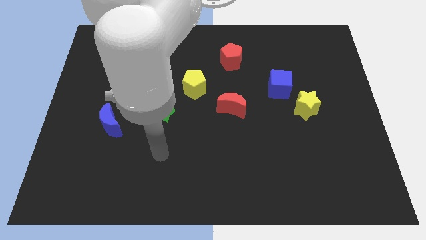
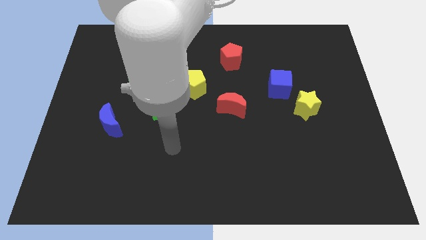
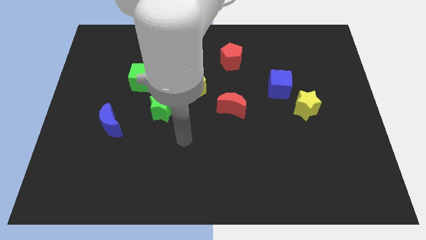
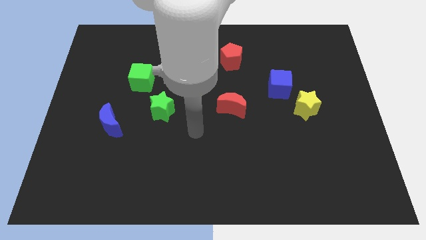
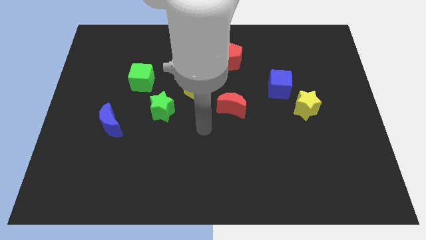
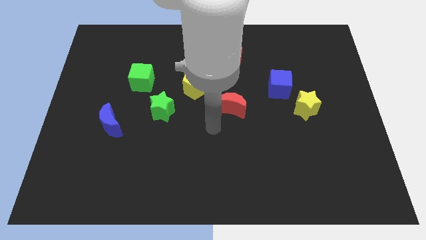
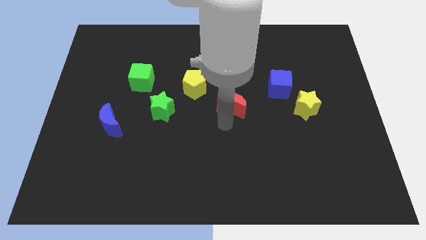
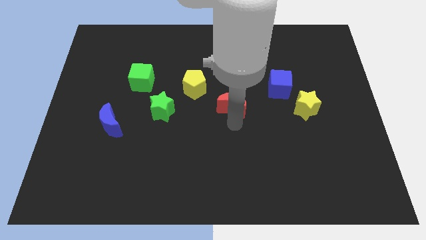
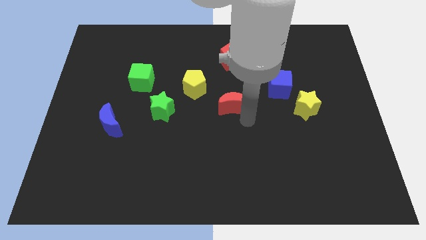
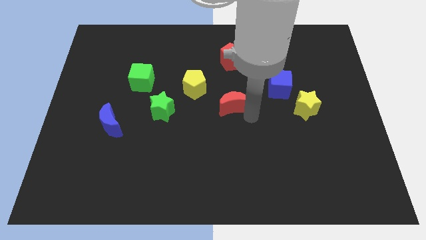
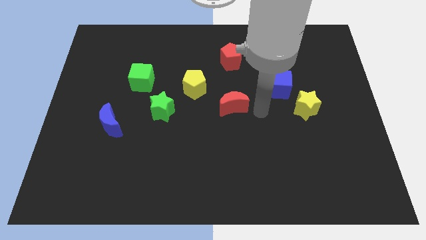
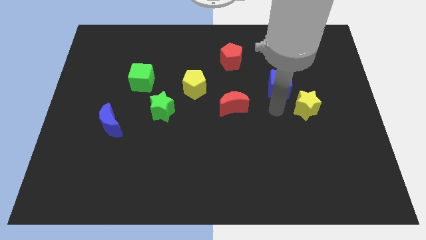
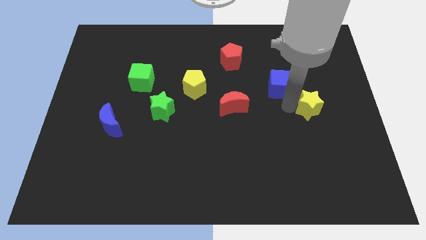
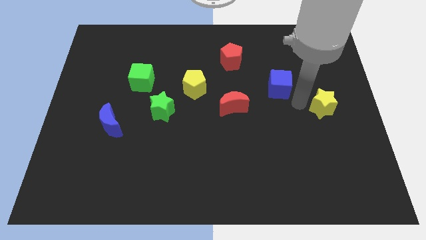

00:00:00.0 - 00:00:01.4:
pull the blue cube apart from the yellow star

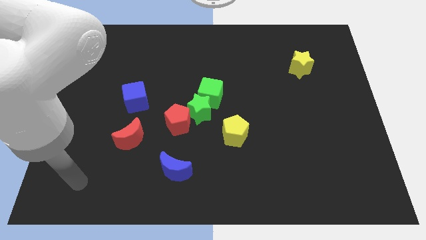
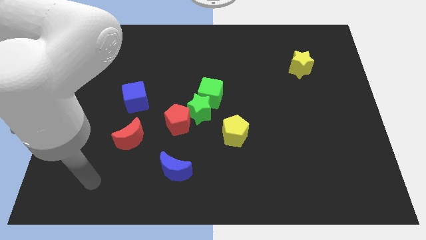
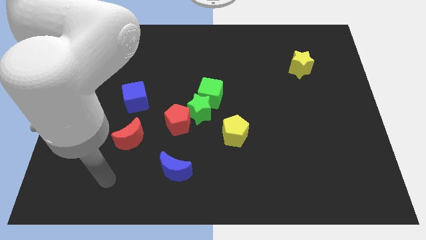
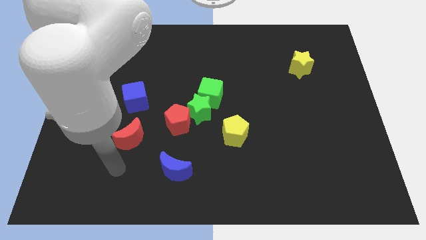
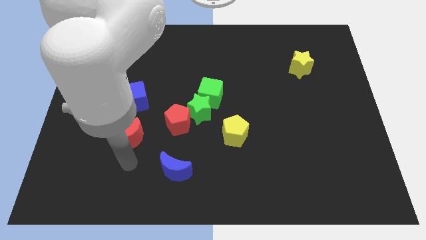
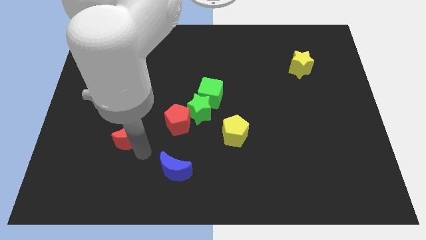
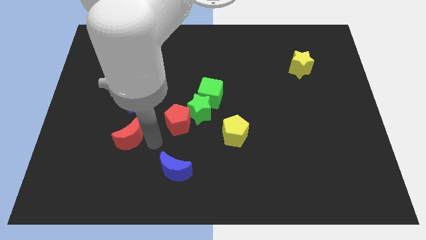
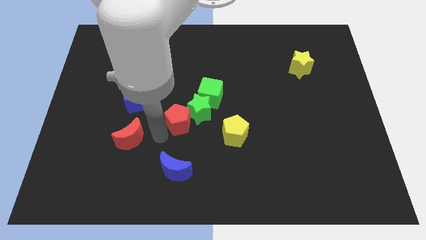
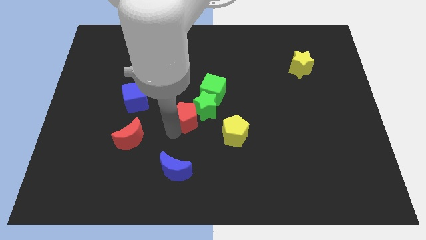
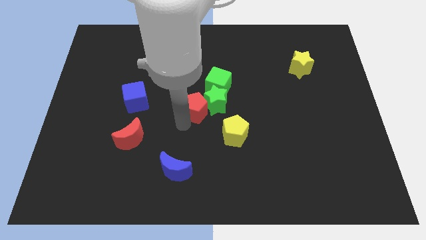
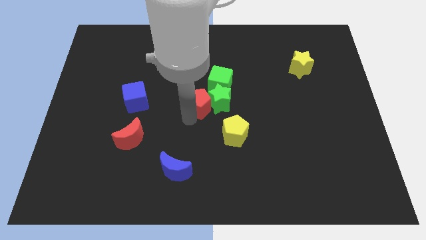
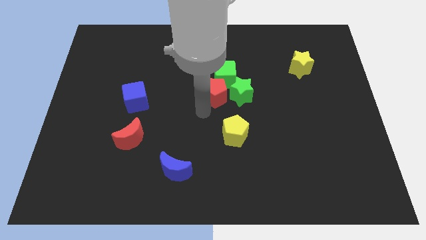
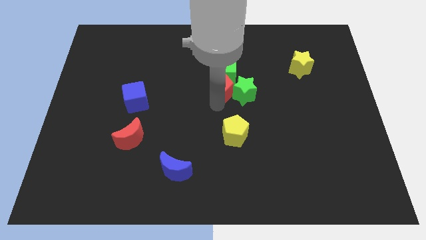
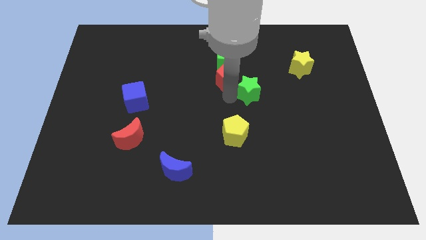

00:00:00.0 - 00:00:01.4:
move the green cube away from the green star

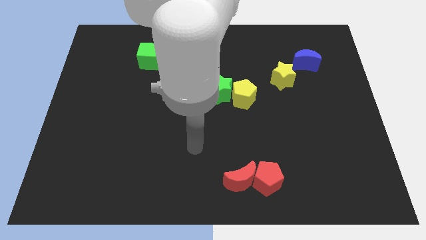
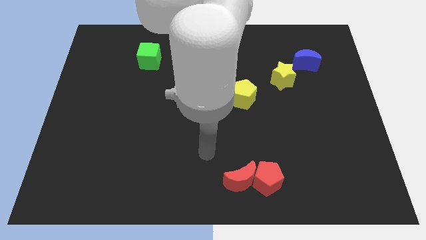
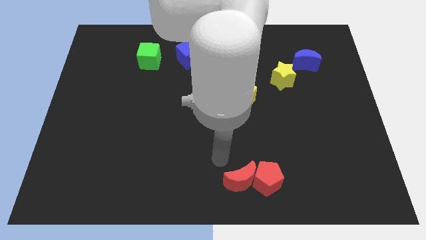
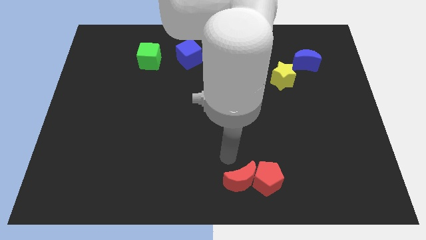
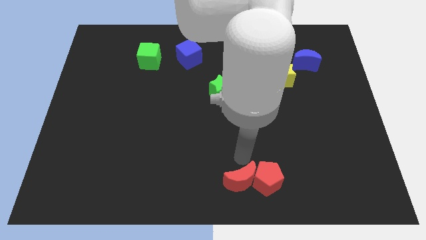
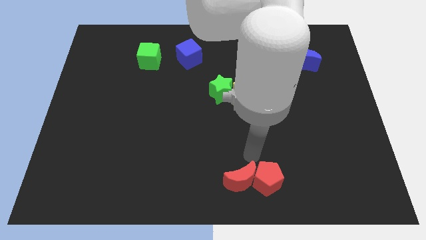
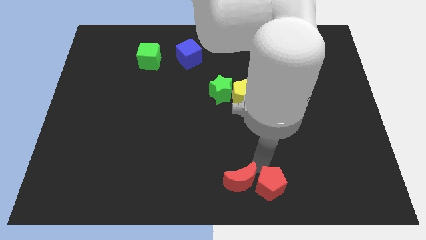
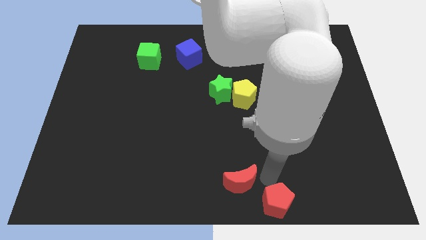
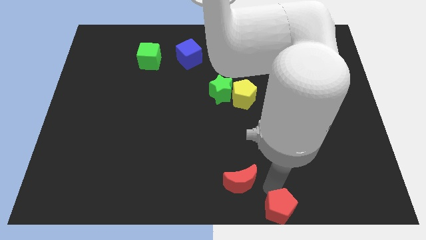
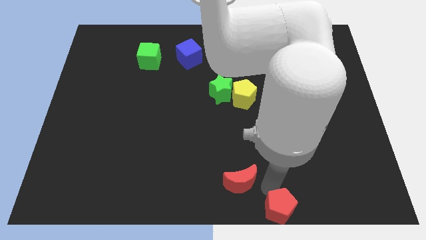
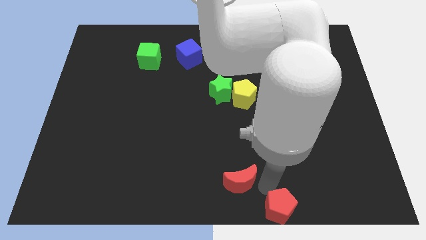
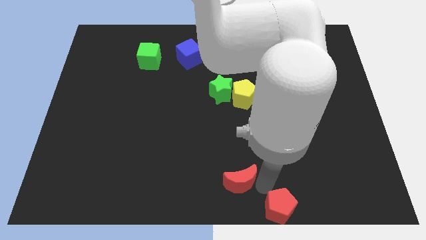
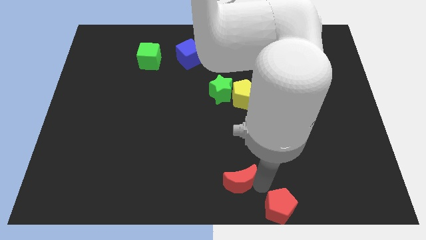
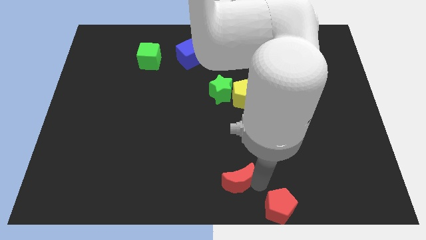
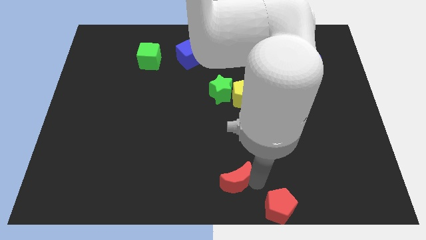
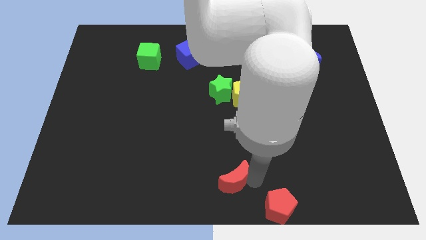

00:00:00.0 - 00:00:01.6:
pull the red moon apart from the red pentagon

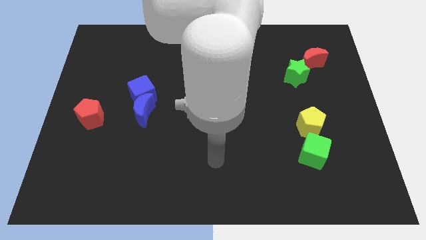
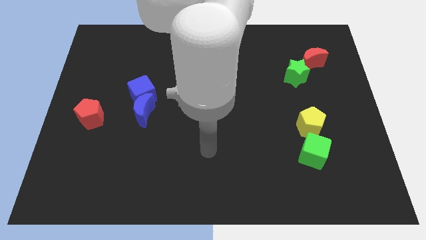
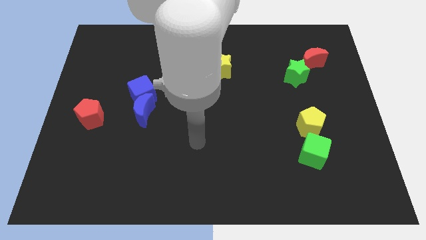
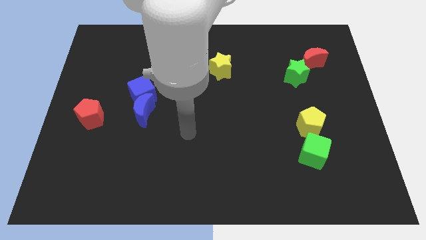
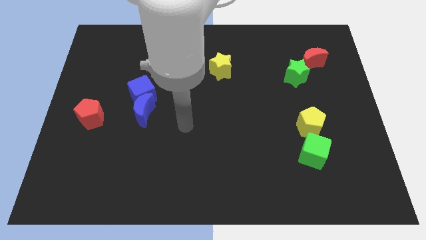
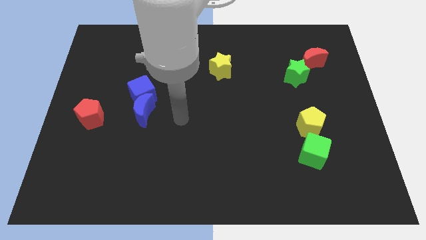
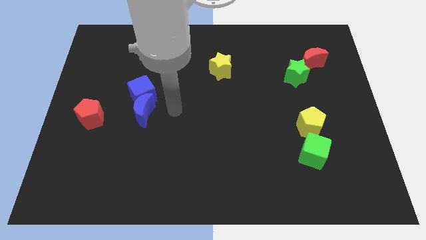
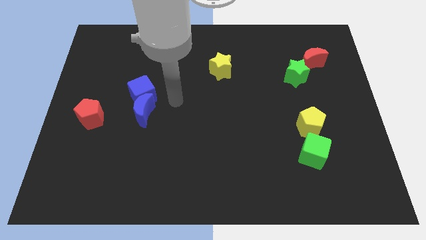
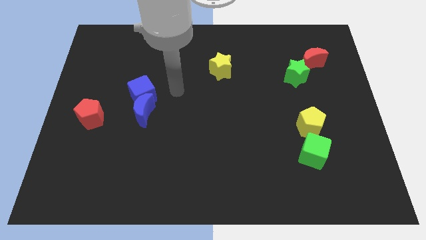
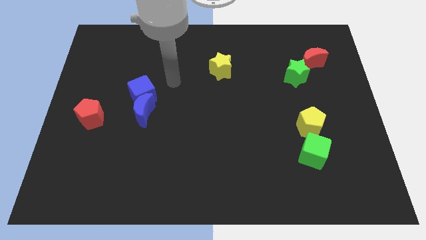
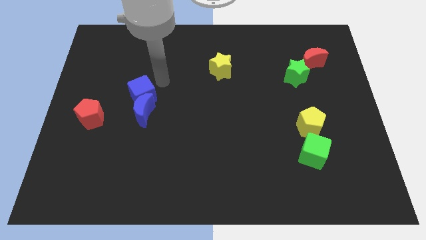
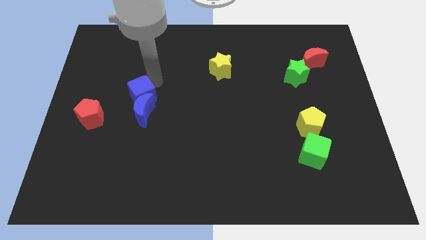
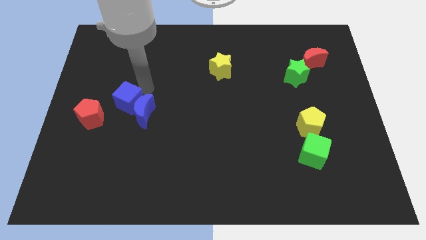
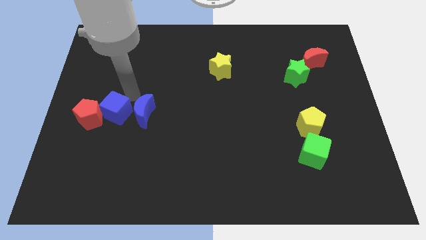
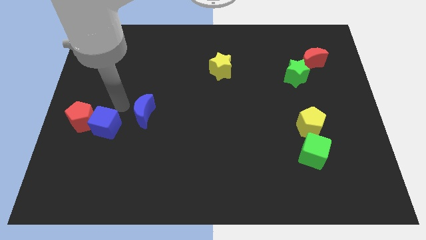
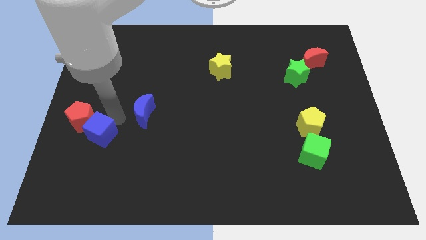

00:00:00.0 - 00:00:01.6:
separate the blue moon from the blue cube

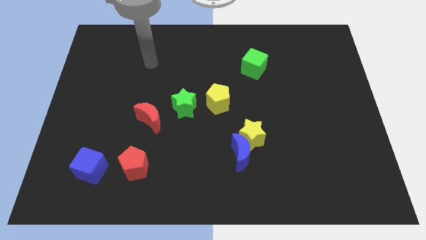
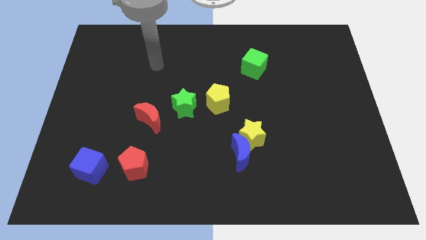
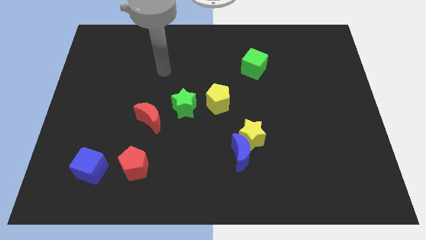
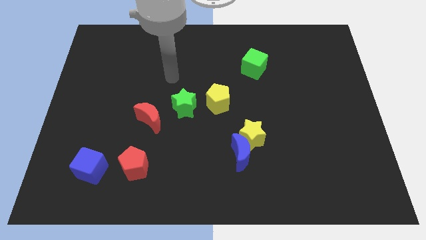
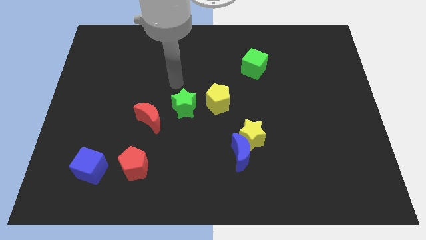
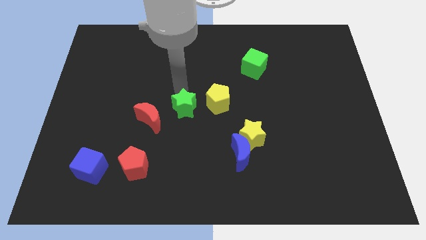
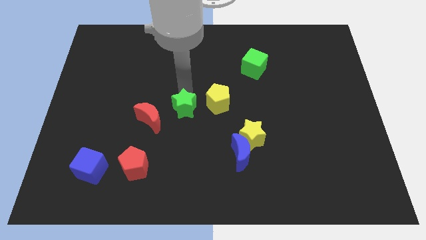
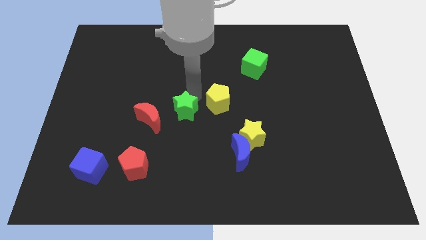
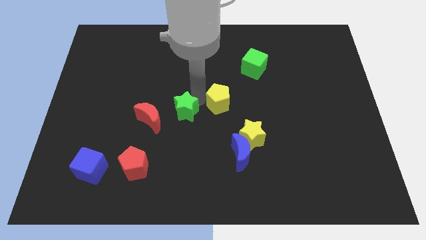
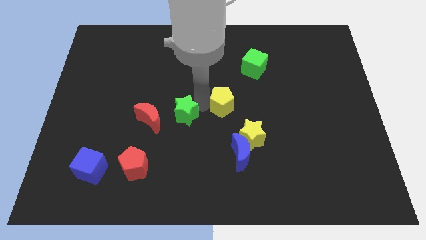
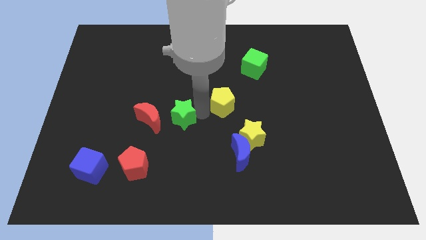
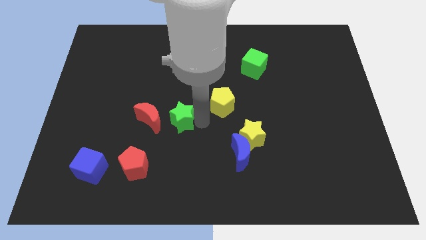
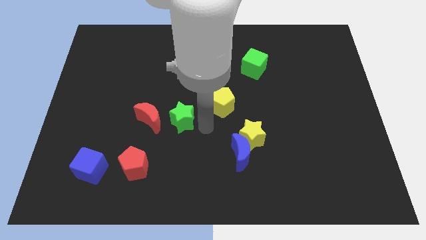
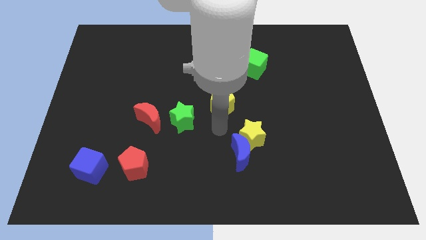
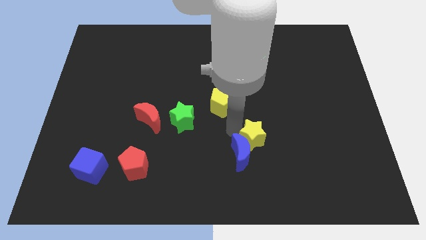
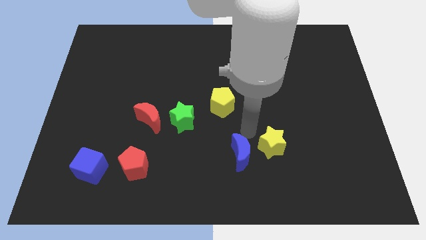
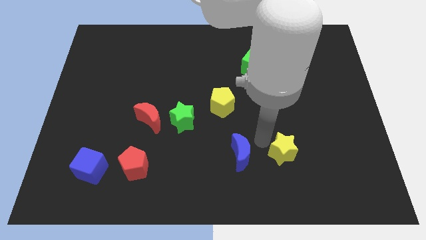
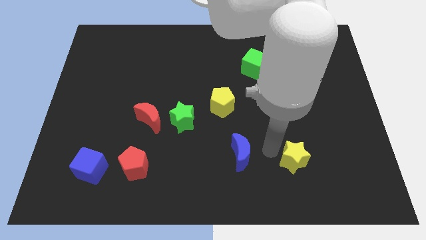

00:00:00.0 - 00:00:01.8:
pull the blue moon apart from the yellow star

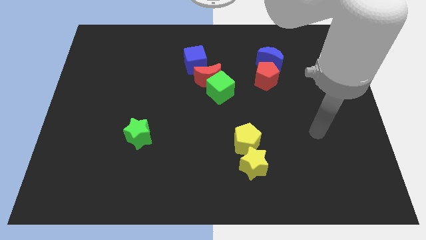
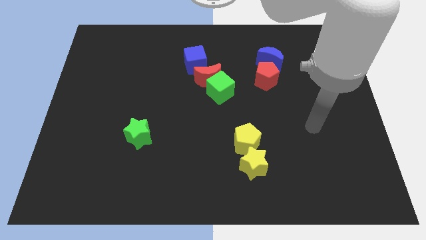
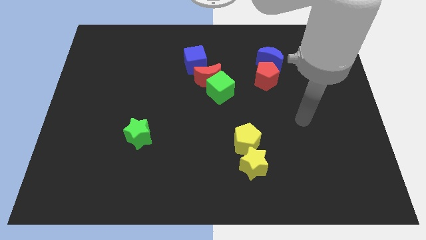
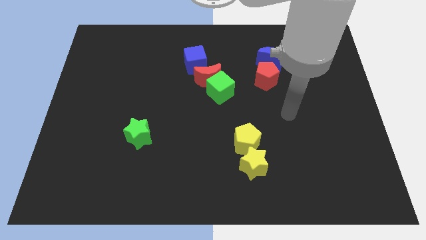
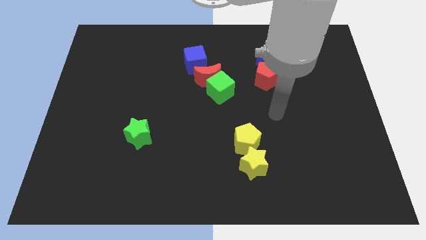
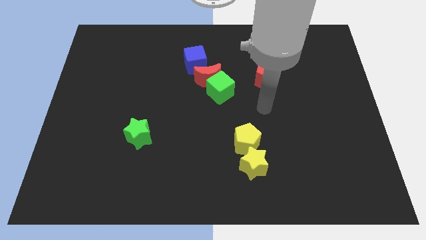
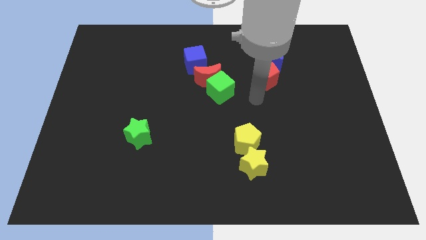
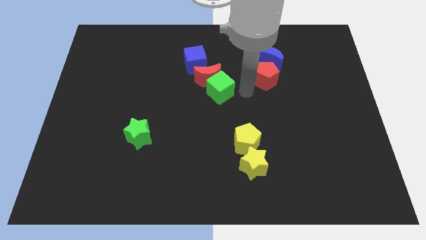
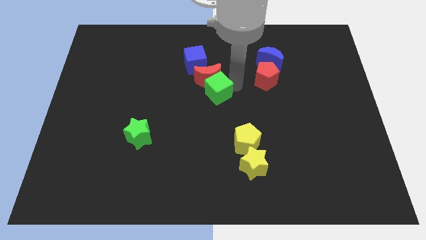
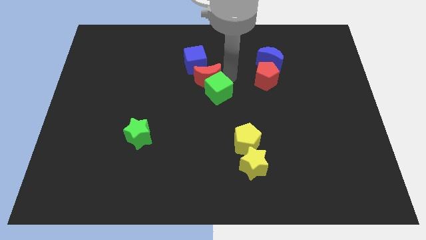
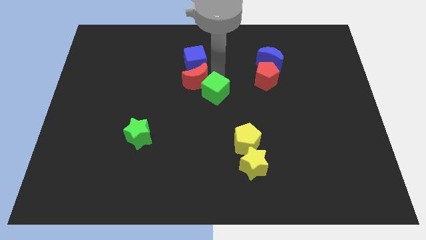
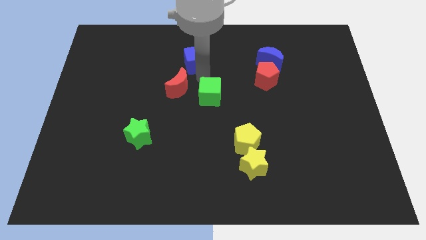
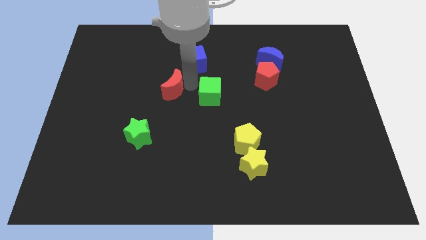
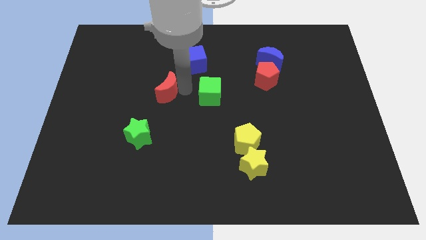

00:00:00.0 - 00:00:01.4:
separate the green cube from the red moon
